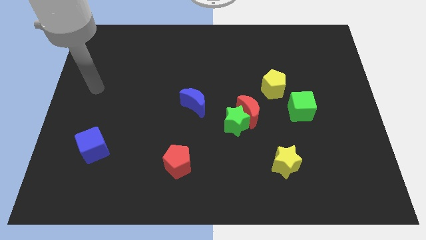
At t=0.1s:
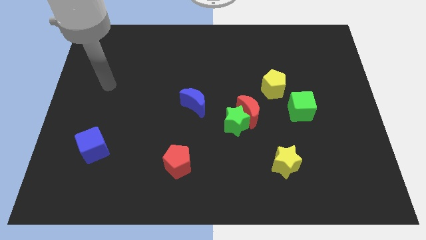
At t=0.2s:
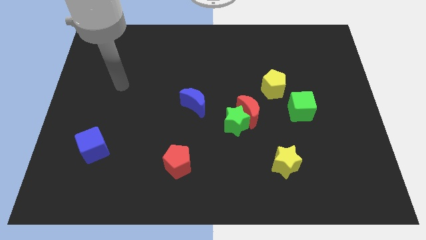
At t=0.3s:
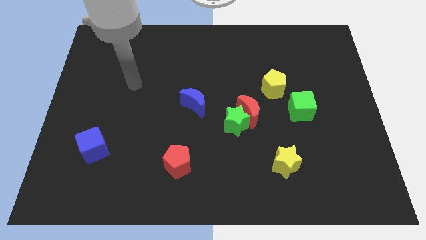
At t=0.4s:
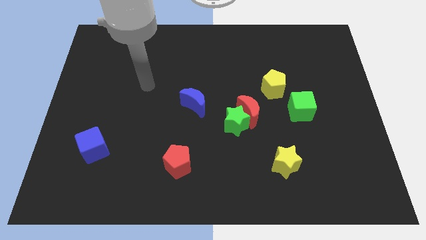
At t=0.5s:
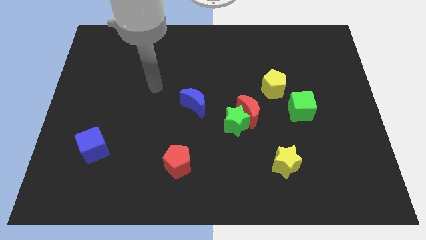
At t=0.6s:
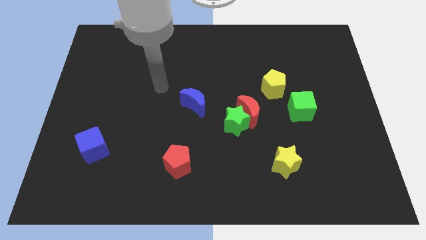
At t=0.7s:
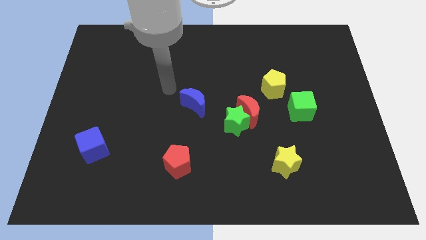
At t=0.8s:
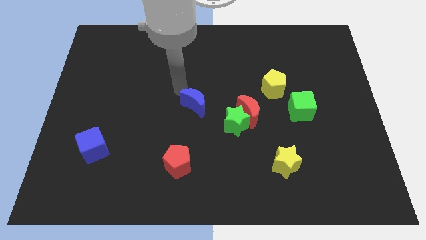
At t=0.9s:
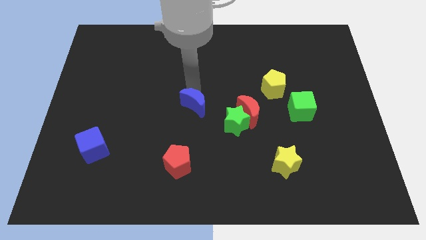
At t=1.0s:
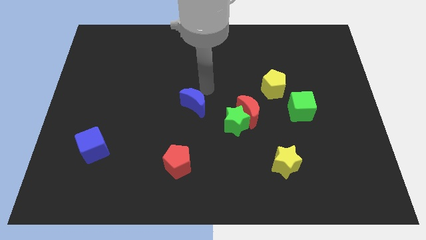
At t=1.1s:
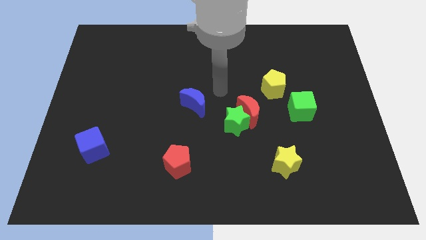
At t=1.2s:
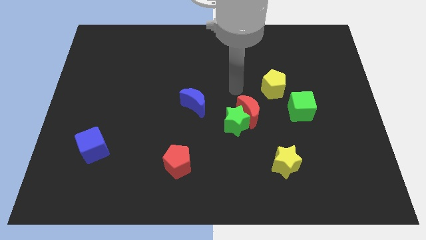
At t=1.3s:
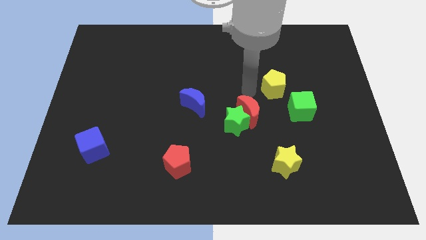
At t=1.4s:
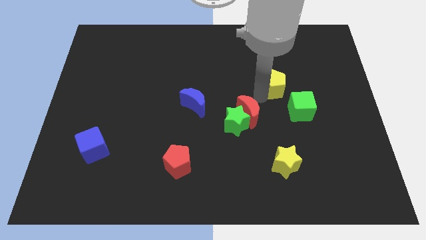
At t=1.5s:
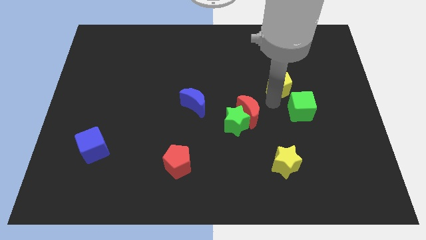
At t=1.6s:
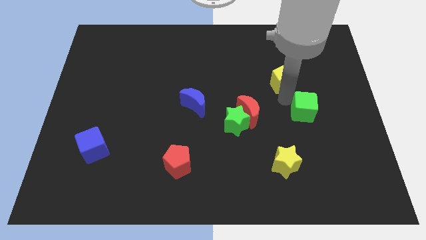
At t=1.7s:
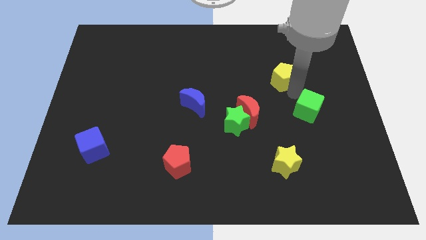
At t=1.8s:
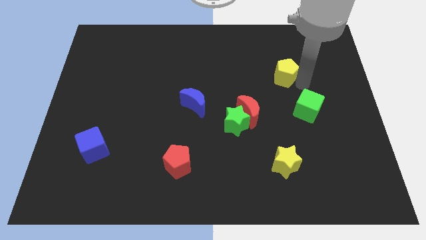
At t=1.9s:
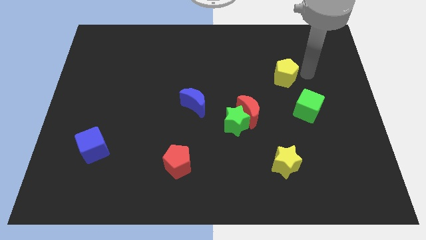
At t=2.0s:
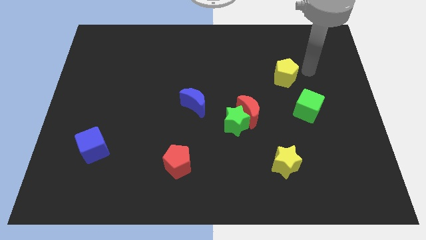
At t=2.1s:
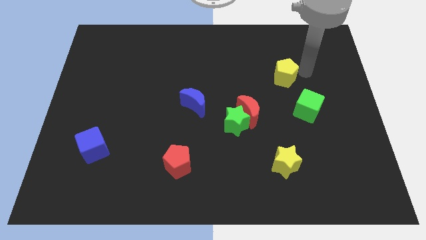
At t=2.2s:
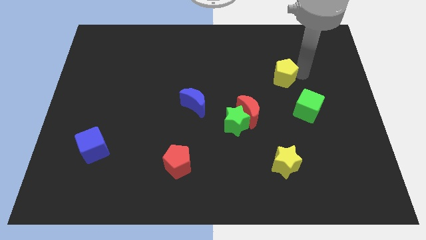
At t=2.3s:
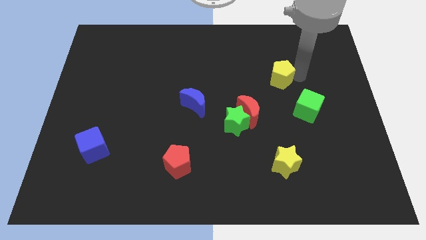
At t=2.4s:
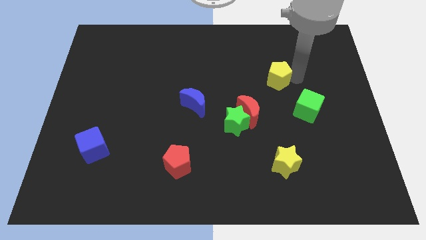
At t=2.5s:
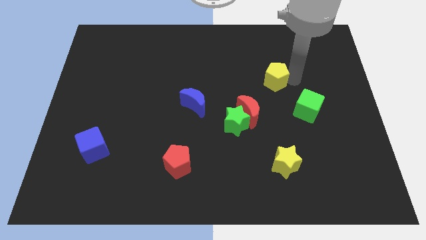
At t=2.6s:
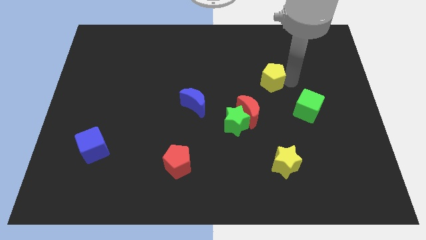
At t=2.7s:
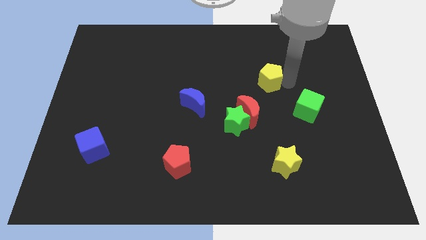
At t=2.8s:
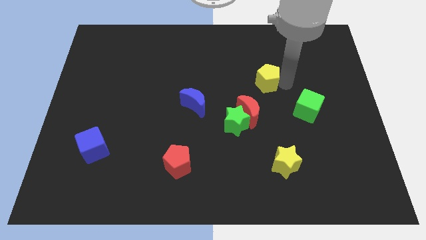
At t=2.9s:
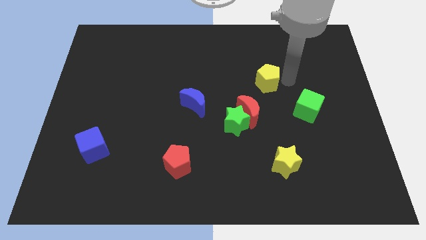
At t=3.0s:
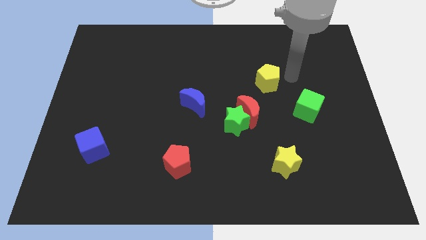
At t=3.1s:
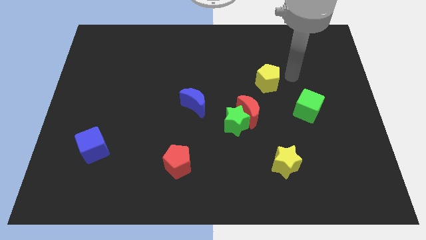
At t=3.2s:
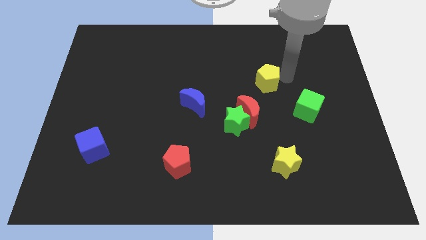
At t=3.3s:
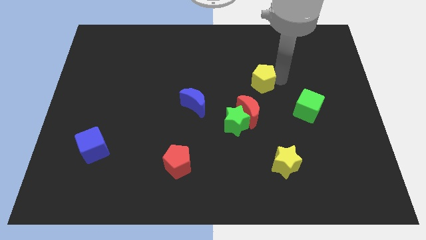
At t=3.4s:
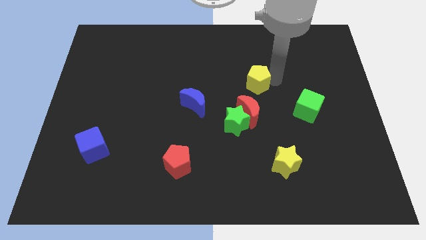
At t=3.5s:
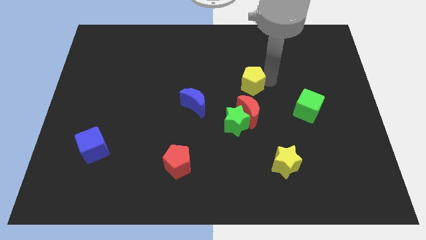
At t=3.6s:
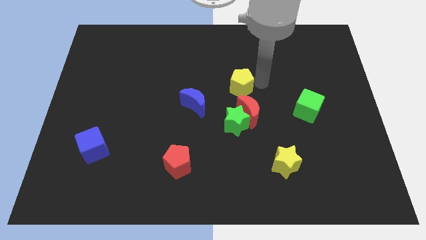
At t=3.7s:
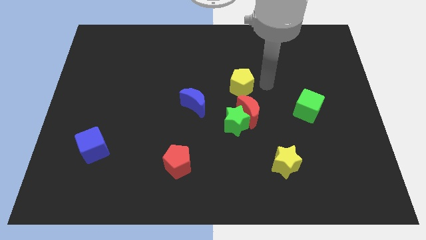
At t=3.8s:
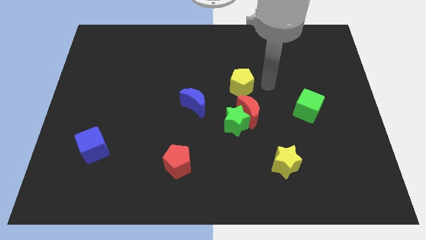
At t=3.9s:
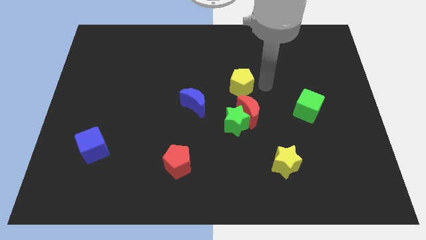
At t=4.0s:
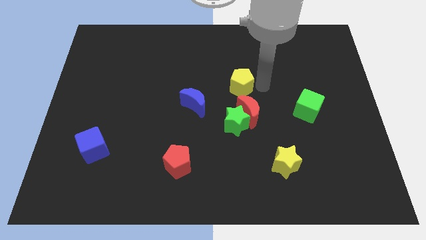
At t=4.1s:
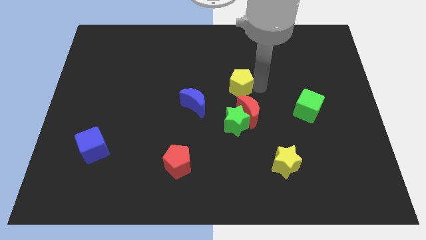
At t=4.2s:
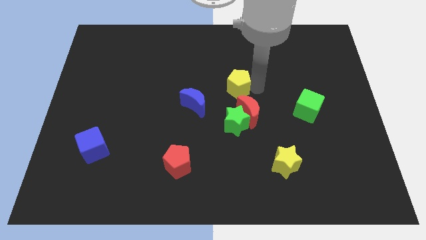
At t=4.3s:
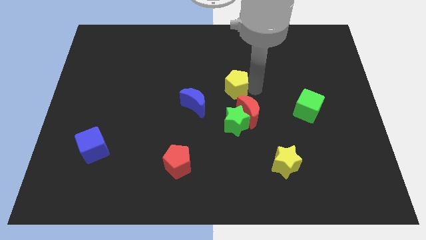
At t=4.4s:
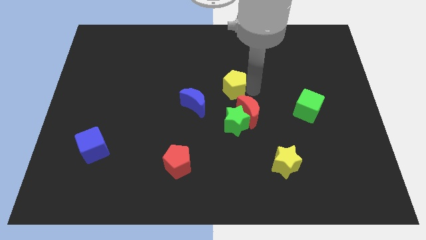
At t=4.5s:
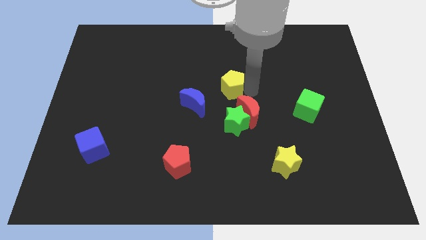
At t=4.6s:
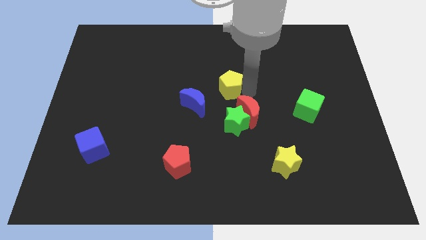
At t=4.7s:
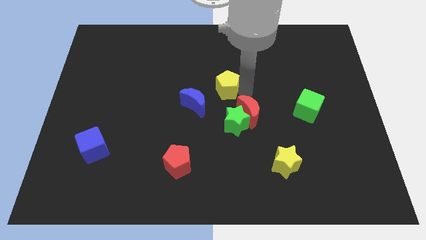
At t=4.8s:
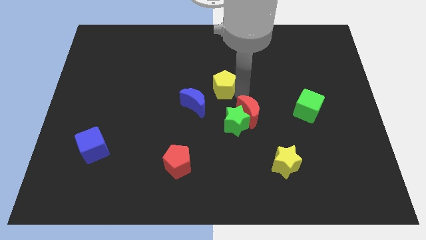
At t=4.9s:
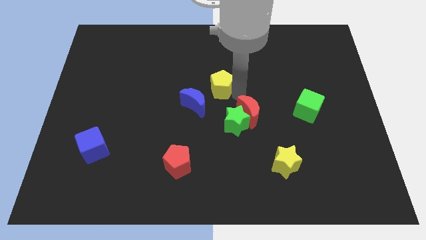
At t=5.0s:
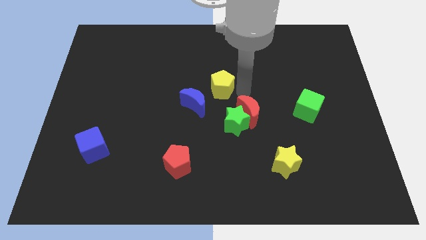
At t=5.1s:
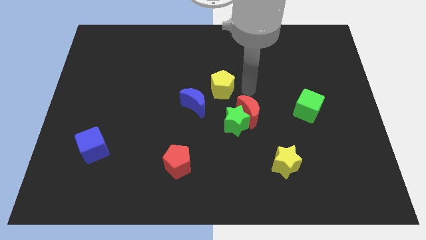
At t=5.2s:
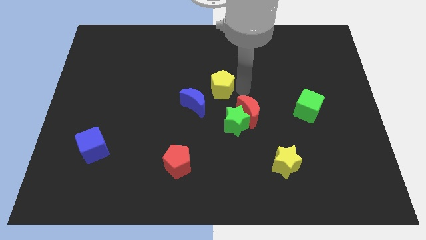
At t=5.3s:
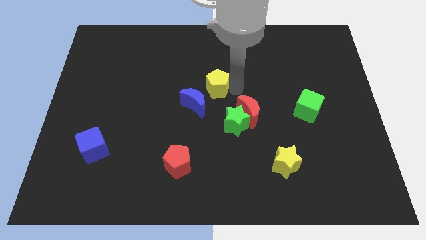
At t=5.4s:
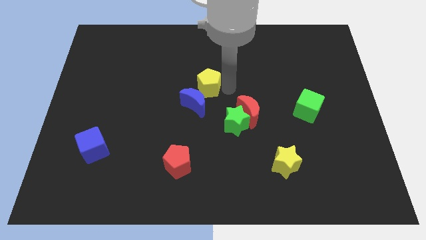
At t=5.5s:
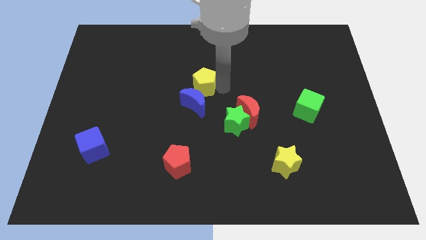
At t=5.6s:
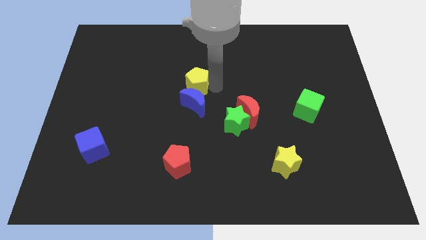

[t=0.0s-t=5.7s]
move the yellow pentagon diagonally up and to the left of the blue moon

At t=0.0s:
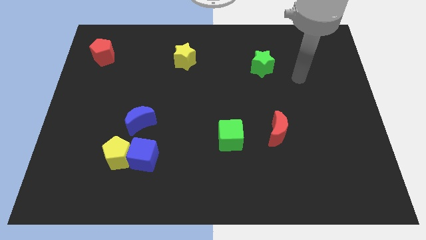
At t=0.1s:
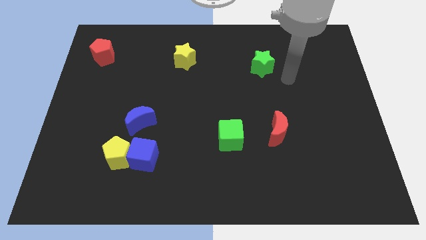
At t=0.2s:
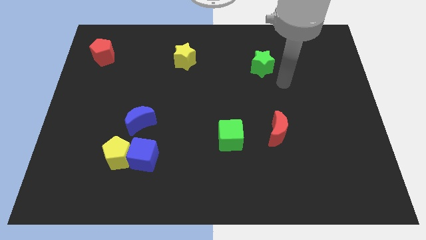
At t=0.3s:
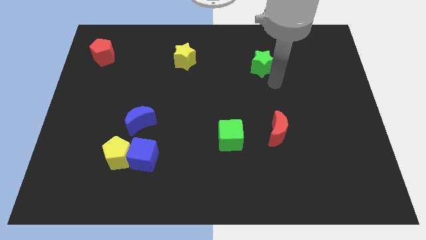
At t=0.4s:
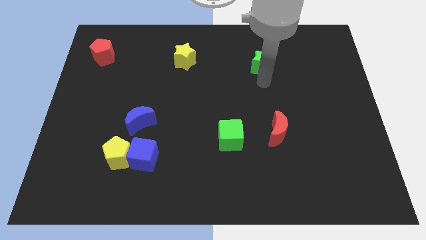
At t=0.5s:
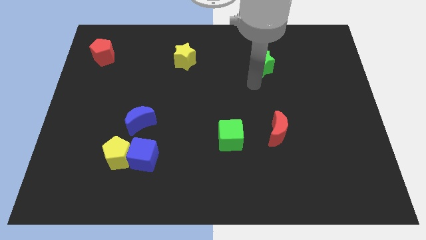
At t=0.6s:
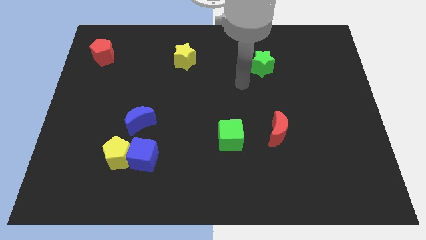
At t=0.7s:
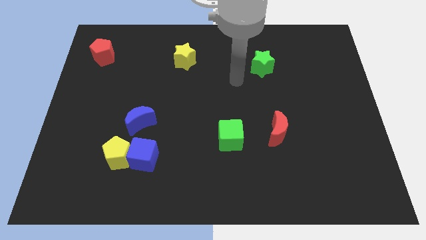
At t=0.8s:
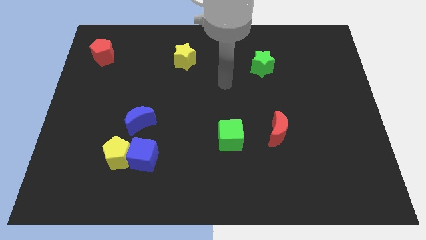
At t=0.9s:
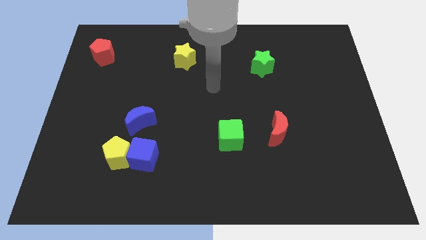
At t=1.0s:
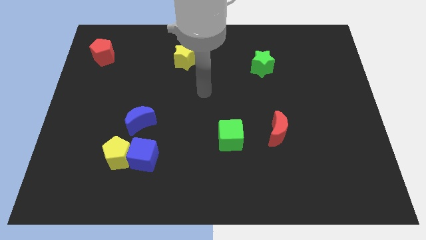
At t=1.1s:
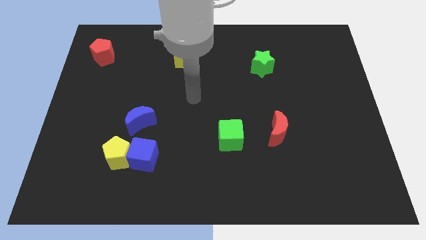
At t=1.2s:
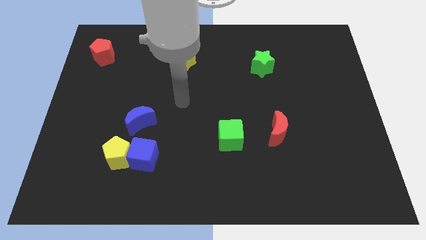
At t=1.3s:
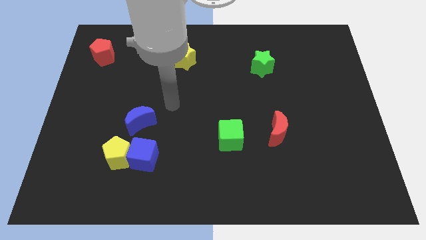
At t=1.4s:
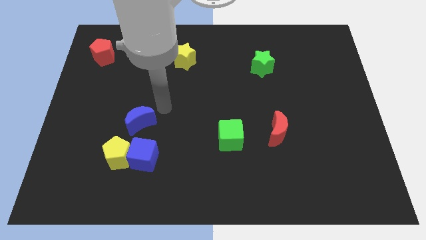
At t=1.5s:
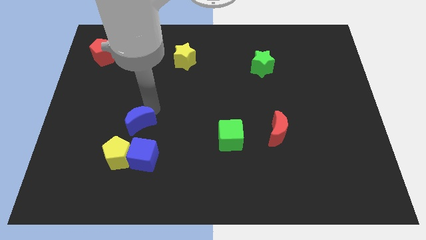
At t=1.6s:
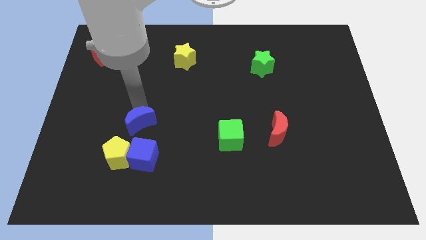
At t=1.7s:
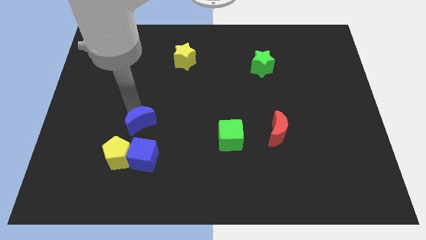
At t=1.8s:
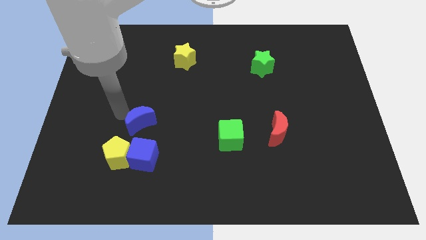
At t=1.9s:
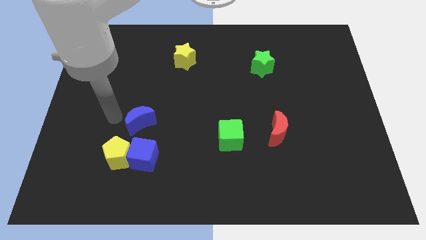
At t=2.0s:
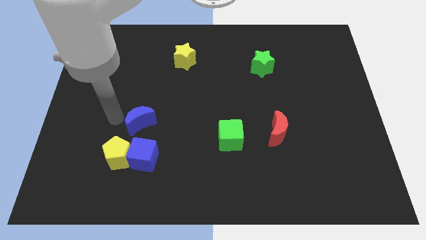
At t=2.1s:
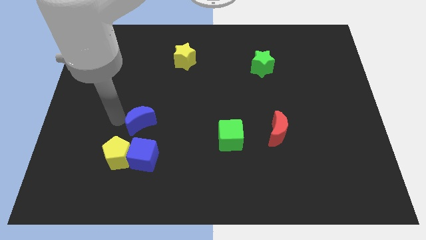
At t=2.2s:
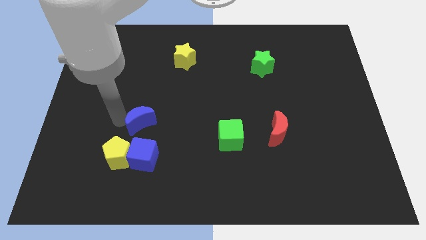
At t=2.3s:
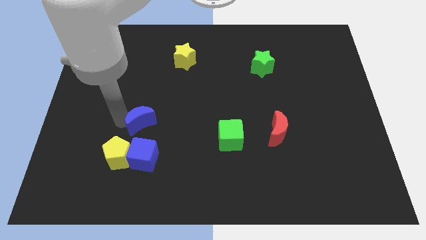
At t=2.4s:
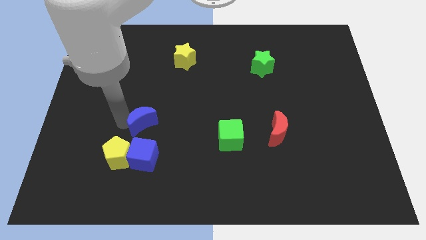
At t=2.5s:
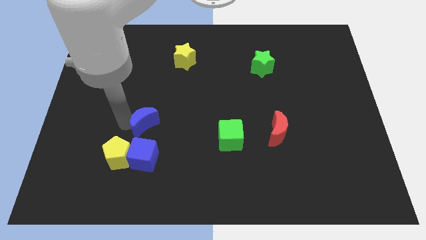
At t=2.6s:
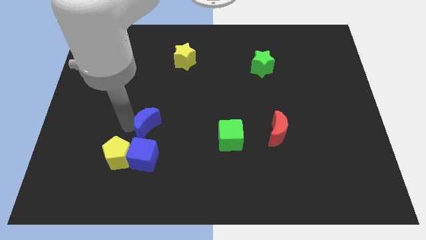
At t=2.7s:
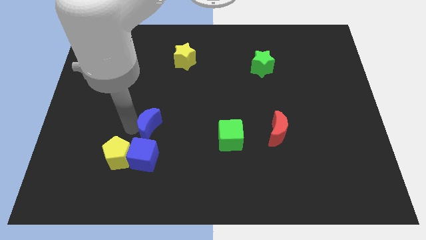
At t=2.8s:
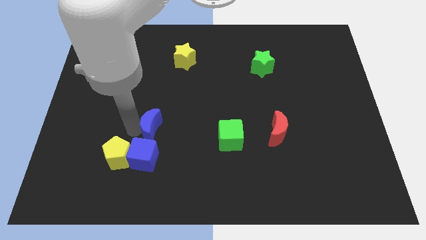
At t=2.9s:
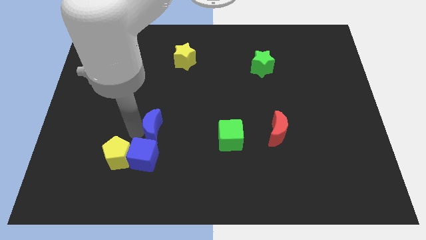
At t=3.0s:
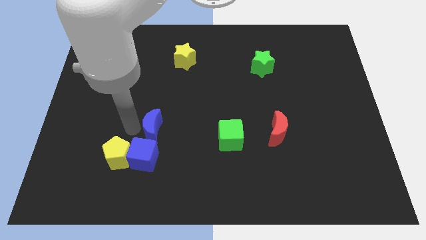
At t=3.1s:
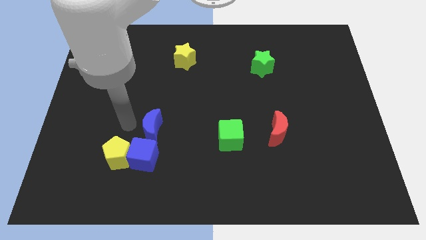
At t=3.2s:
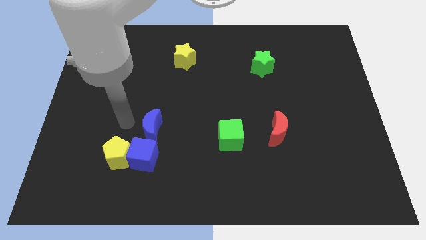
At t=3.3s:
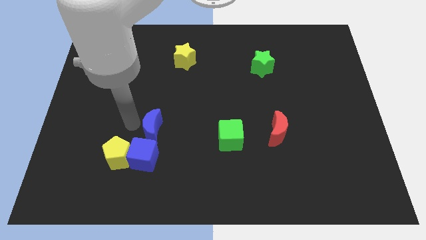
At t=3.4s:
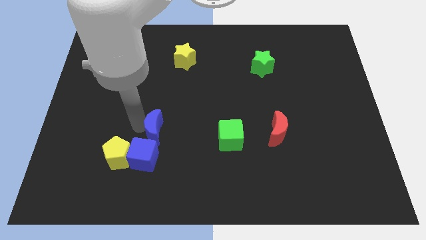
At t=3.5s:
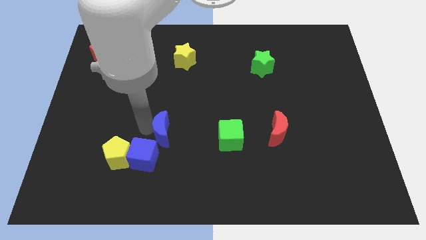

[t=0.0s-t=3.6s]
slide the blue moon left of the green cube
